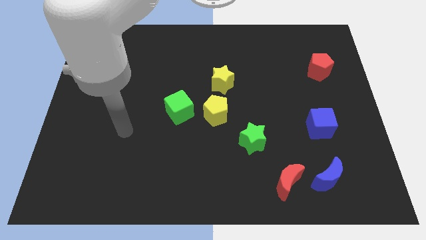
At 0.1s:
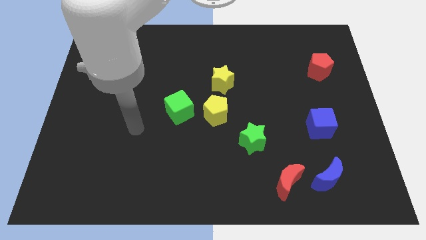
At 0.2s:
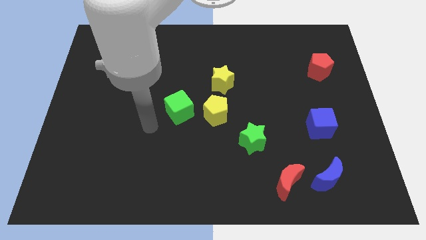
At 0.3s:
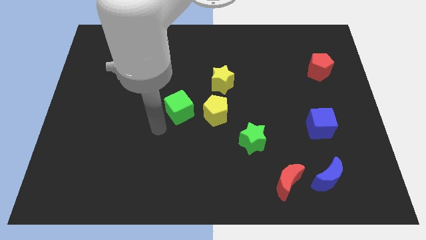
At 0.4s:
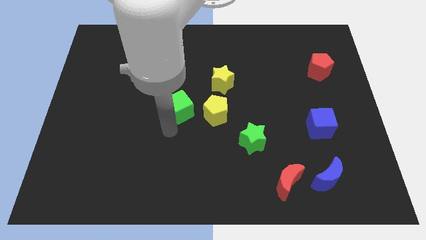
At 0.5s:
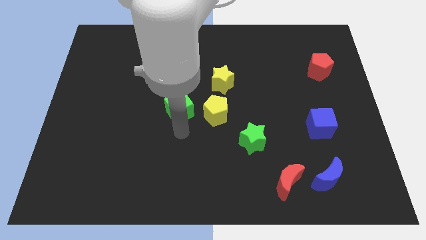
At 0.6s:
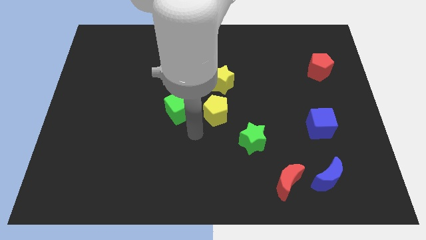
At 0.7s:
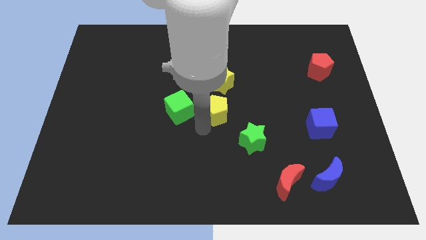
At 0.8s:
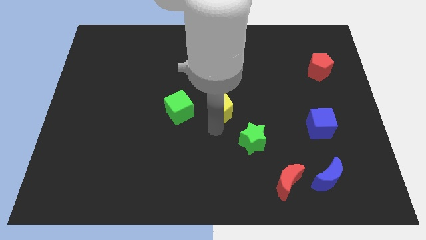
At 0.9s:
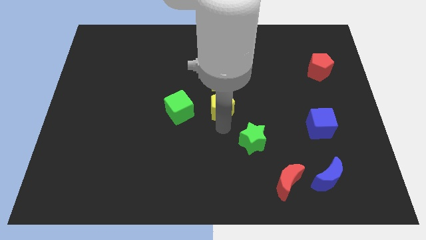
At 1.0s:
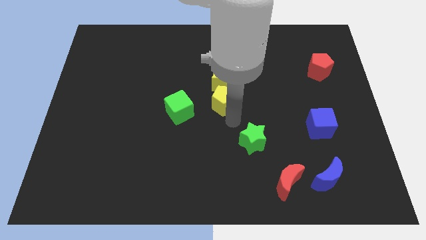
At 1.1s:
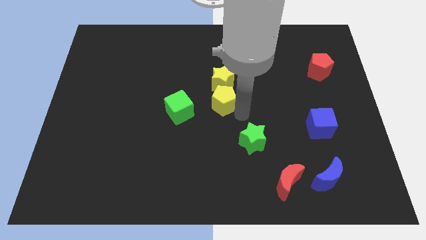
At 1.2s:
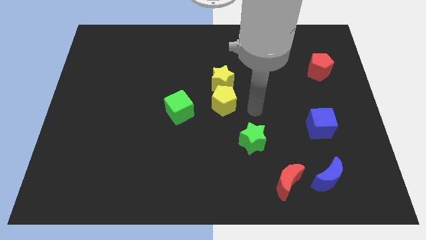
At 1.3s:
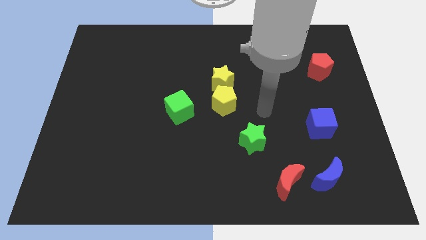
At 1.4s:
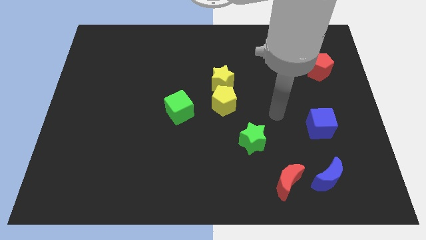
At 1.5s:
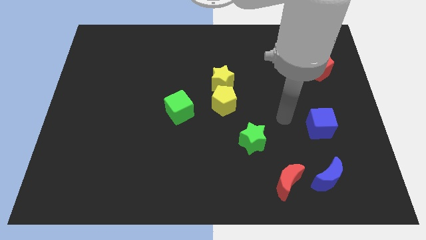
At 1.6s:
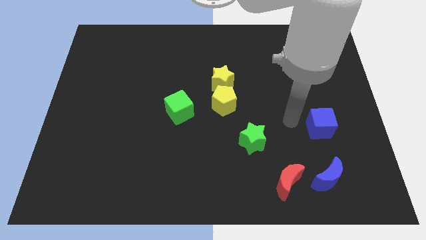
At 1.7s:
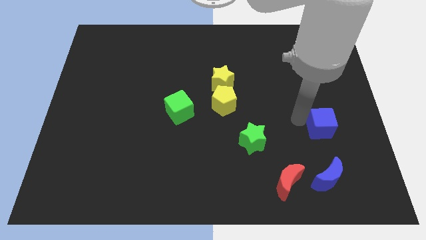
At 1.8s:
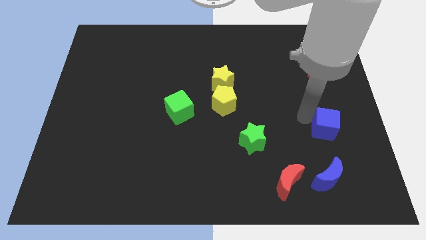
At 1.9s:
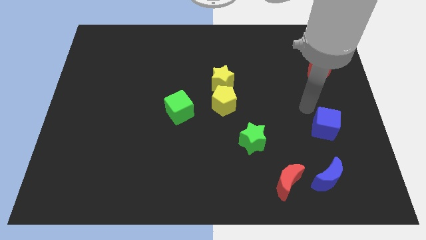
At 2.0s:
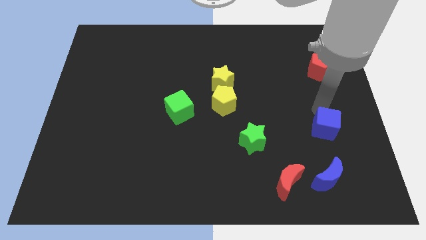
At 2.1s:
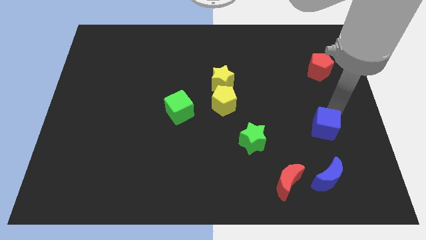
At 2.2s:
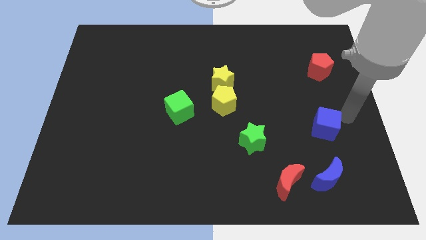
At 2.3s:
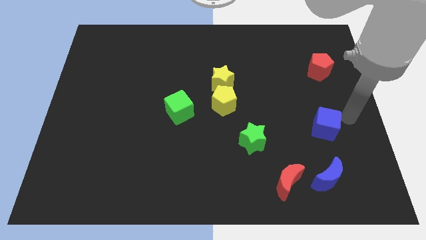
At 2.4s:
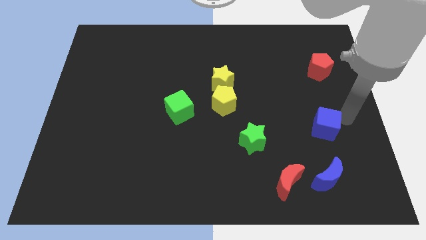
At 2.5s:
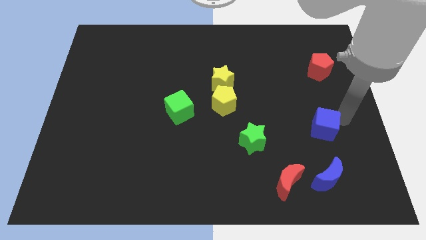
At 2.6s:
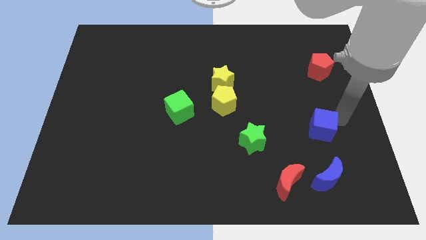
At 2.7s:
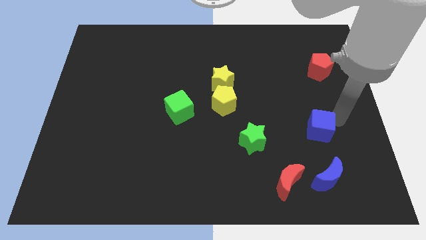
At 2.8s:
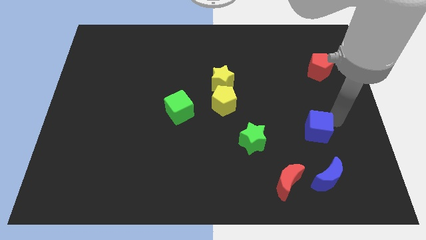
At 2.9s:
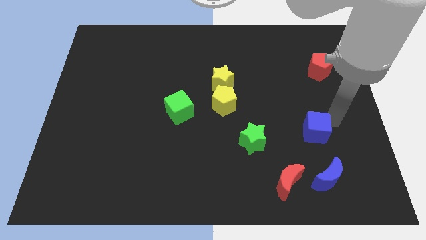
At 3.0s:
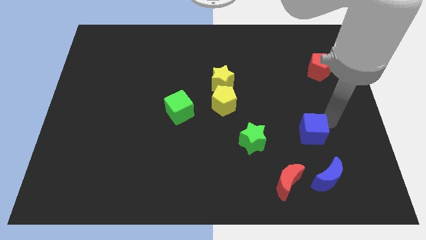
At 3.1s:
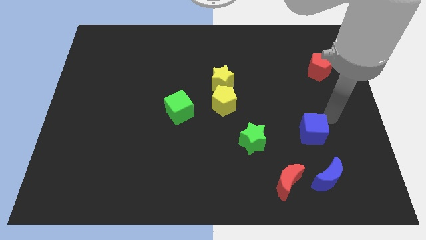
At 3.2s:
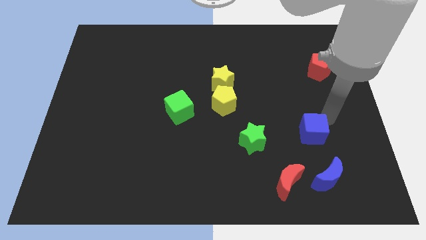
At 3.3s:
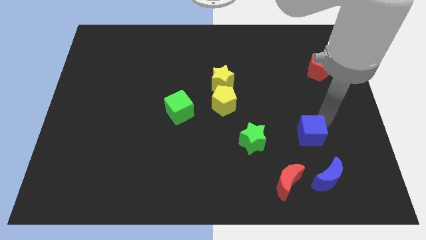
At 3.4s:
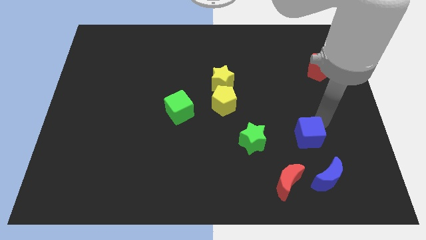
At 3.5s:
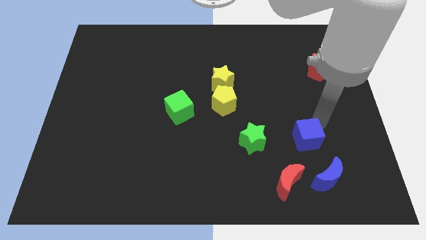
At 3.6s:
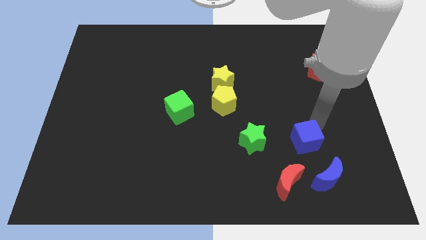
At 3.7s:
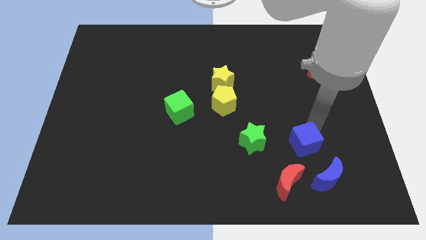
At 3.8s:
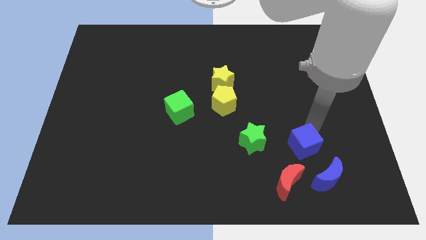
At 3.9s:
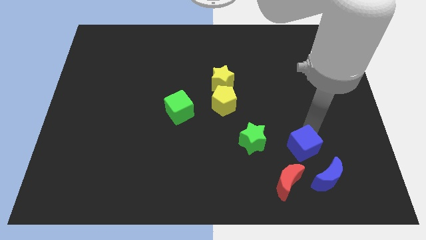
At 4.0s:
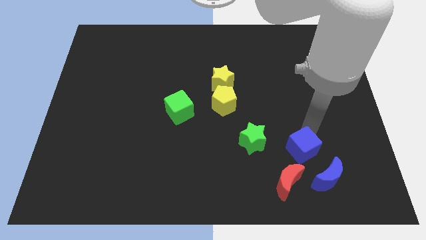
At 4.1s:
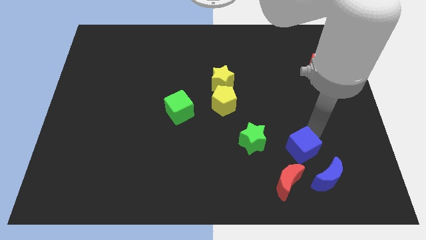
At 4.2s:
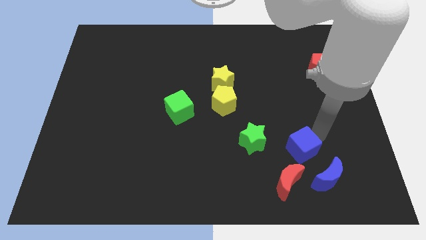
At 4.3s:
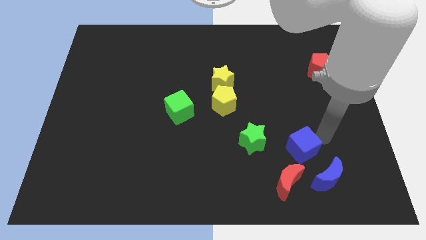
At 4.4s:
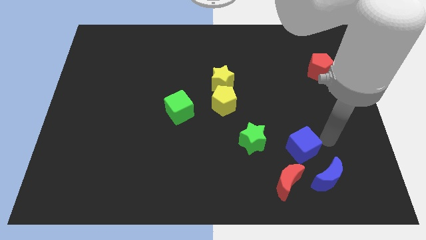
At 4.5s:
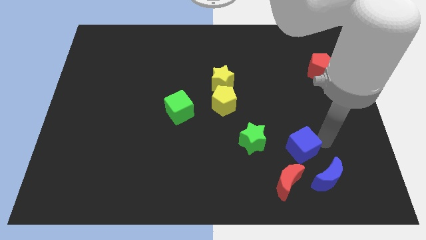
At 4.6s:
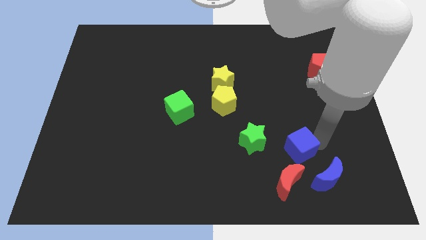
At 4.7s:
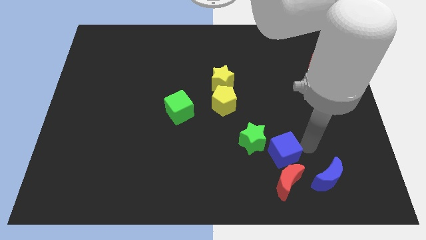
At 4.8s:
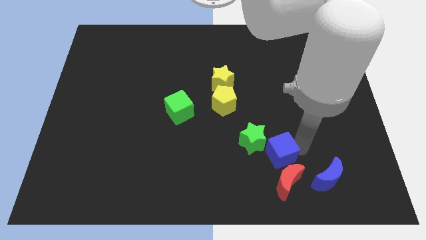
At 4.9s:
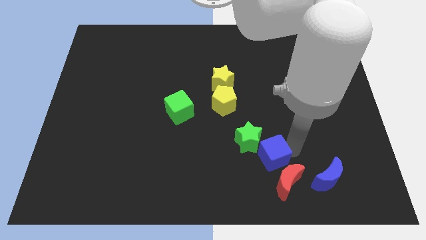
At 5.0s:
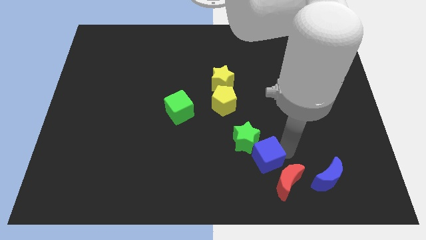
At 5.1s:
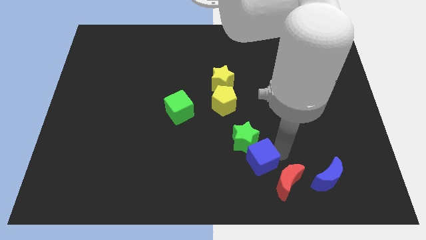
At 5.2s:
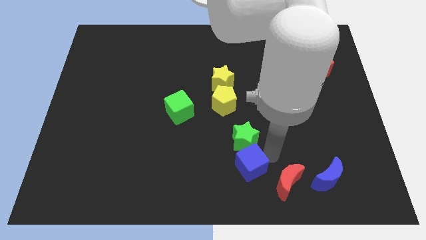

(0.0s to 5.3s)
push the blue cube left of the red moon

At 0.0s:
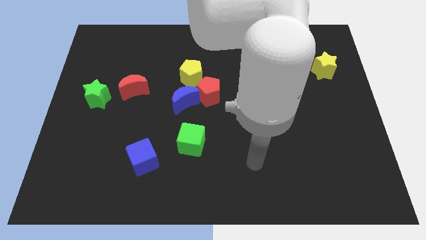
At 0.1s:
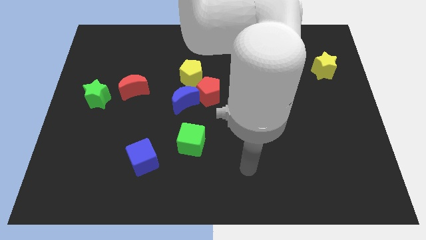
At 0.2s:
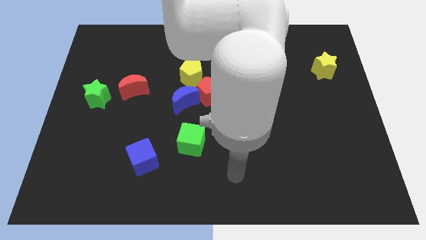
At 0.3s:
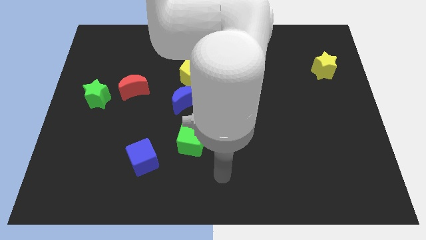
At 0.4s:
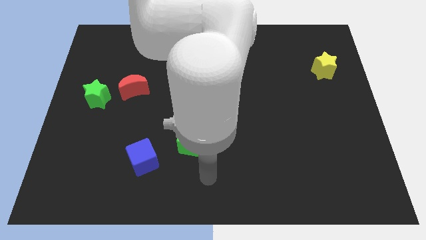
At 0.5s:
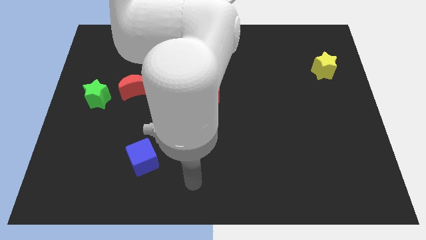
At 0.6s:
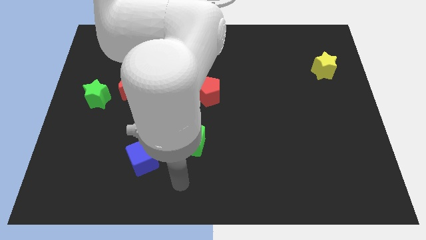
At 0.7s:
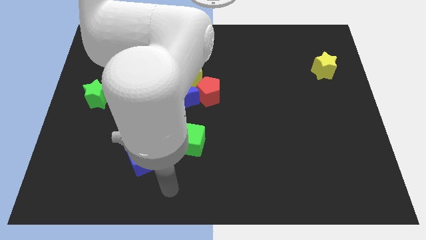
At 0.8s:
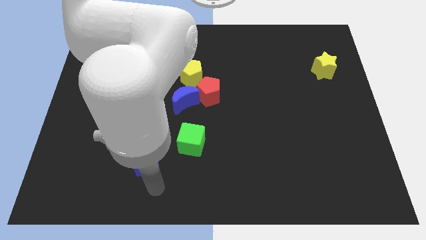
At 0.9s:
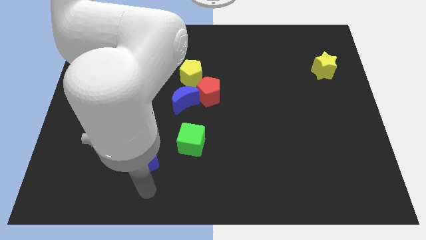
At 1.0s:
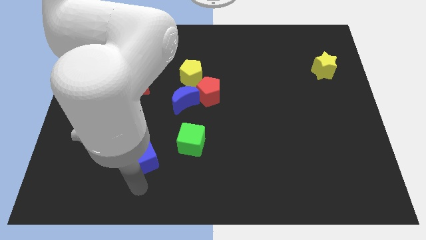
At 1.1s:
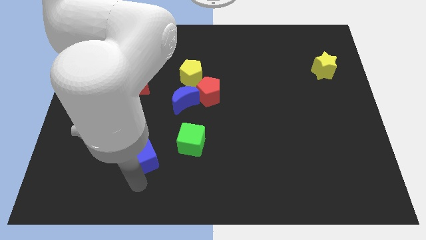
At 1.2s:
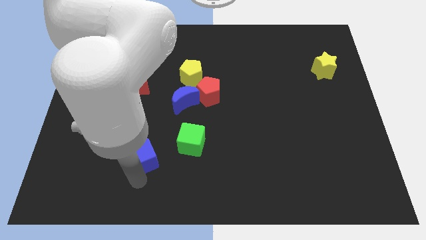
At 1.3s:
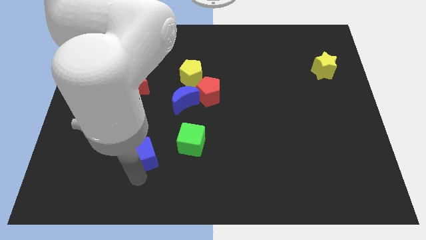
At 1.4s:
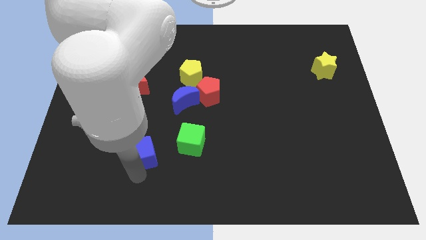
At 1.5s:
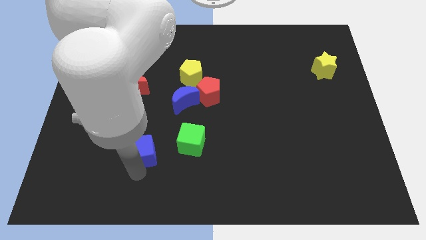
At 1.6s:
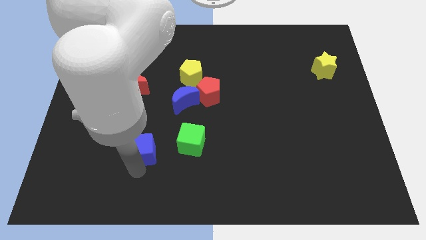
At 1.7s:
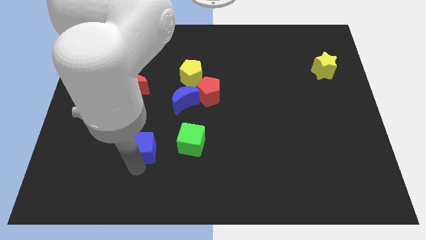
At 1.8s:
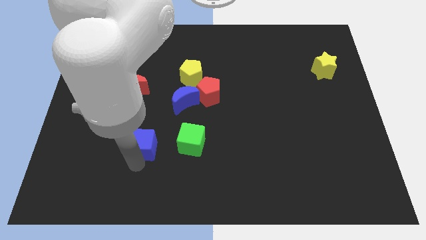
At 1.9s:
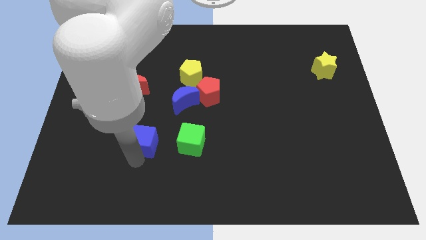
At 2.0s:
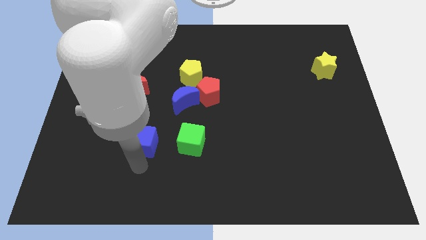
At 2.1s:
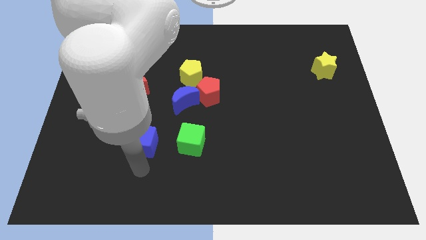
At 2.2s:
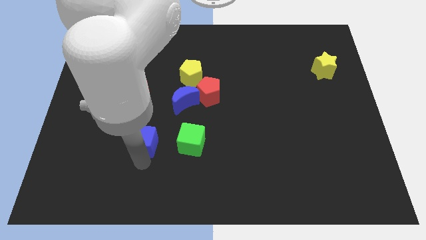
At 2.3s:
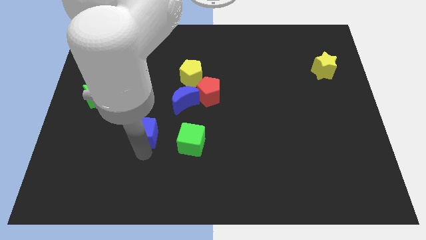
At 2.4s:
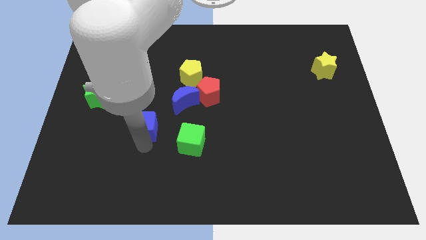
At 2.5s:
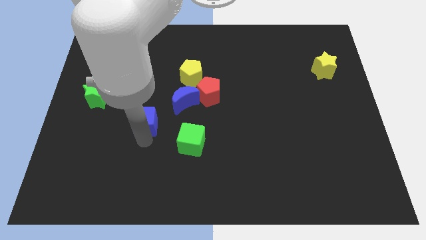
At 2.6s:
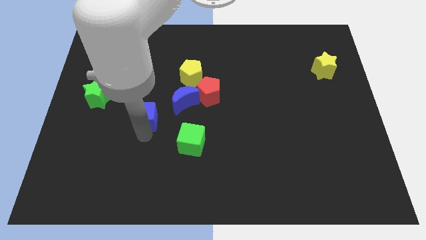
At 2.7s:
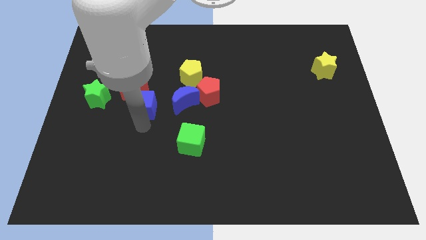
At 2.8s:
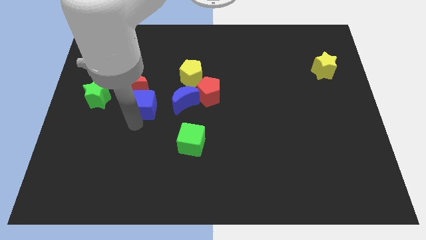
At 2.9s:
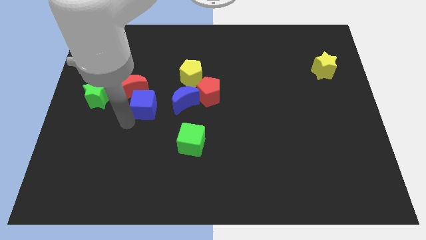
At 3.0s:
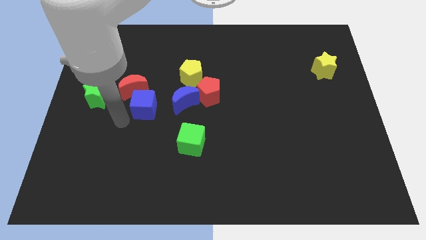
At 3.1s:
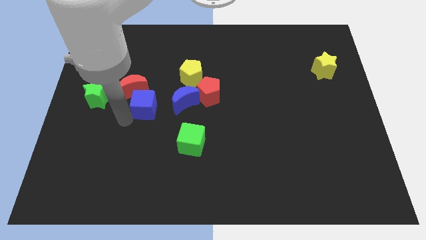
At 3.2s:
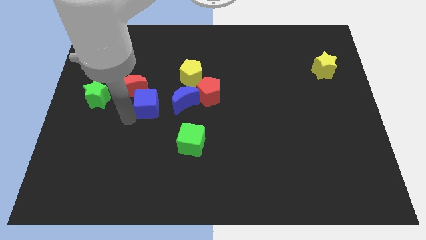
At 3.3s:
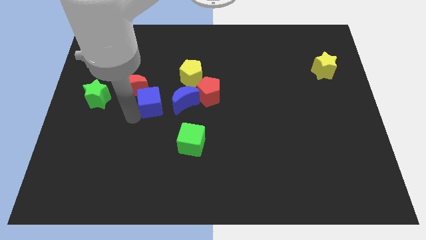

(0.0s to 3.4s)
move the blue cube to the right side of the red moon
